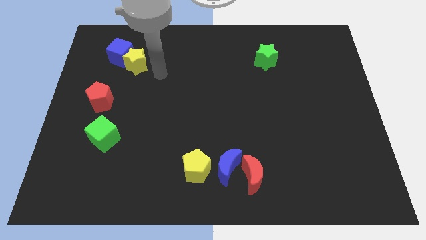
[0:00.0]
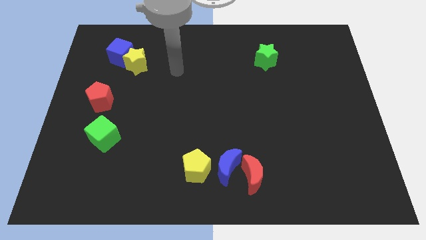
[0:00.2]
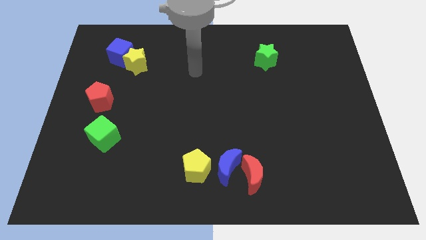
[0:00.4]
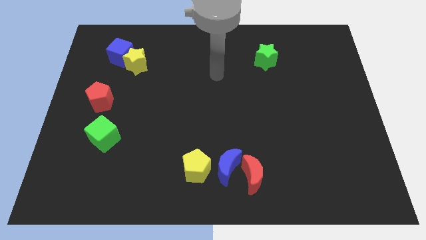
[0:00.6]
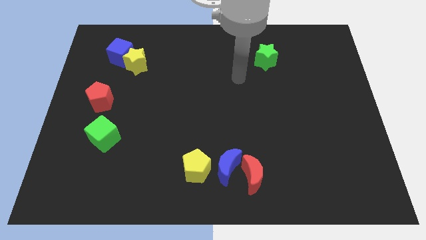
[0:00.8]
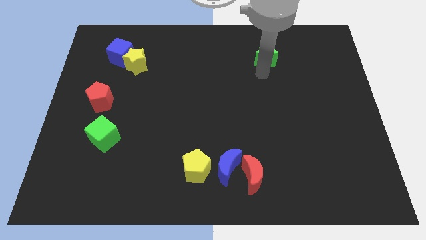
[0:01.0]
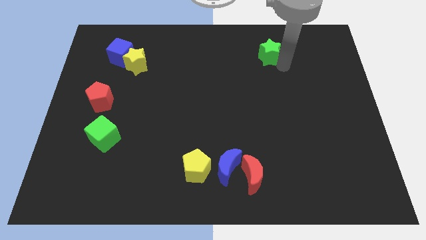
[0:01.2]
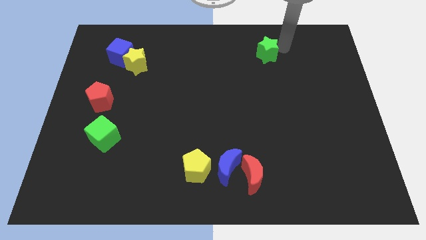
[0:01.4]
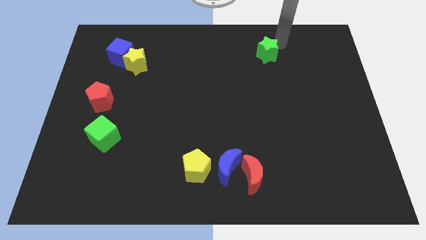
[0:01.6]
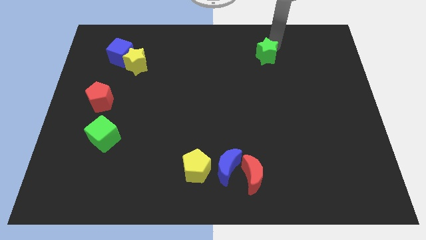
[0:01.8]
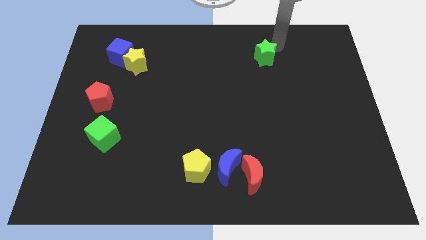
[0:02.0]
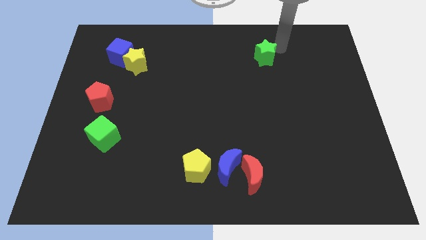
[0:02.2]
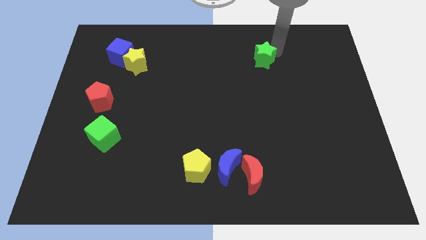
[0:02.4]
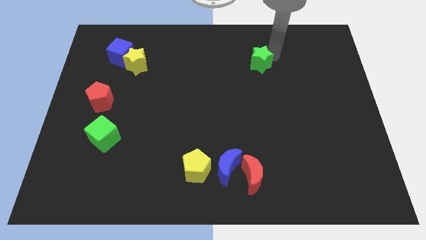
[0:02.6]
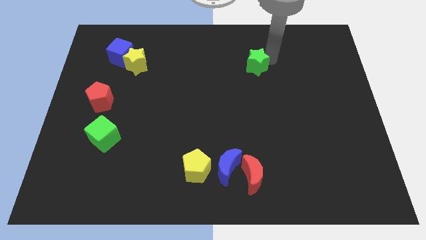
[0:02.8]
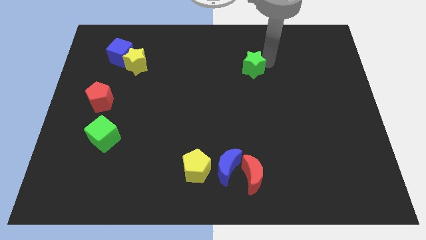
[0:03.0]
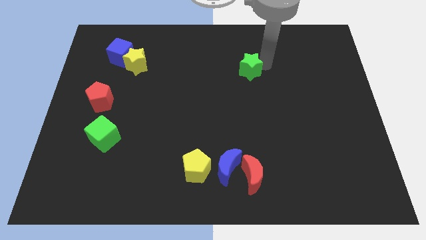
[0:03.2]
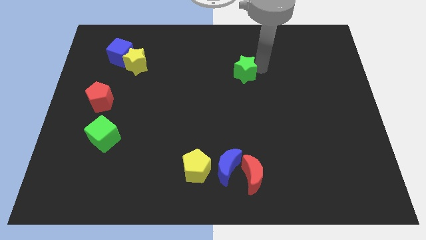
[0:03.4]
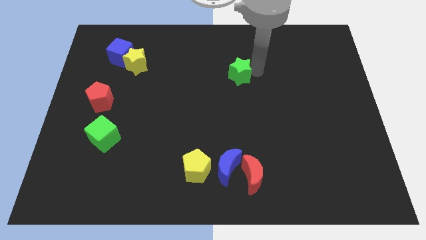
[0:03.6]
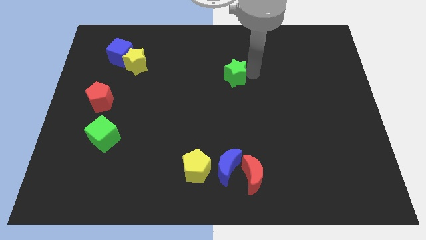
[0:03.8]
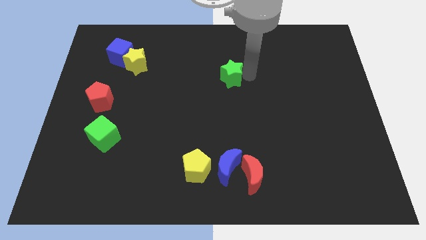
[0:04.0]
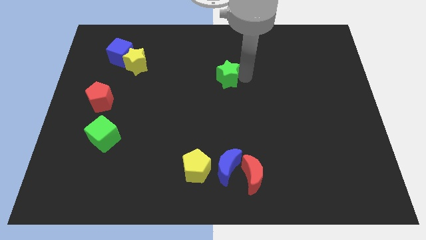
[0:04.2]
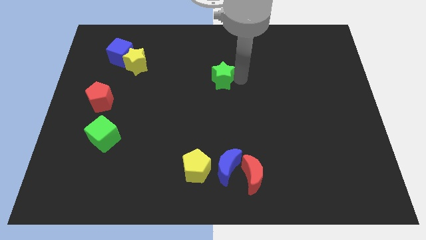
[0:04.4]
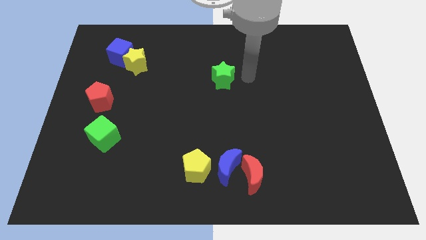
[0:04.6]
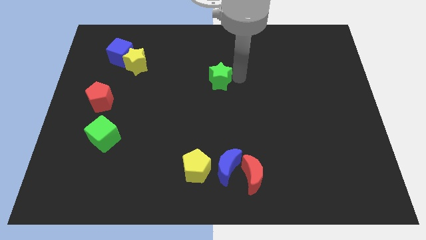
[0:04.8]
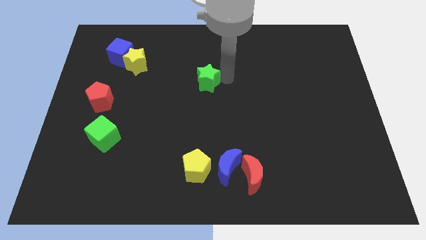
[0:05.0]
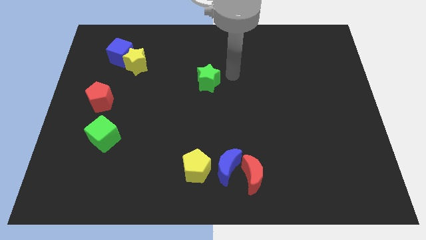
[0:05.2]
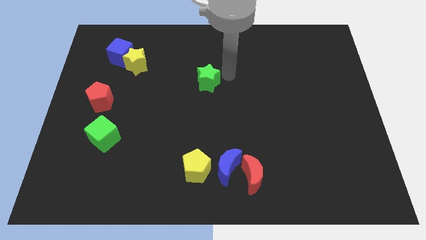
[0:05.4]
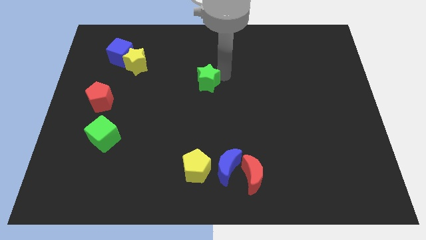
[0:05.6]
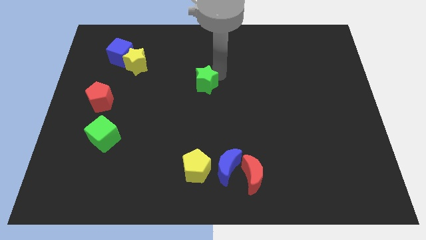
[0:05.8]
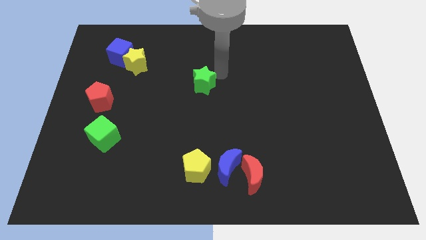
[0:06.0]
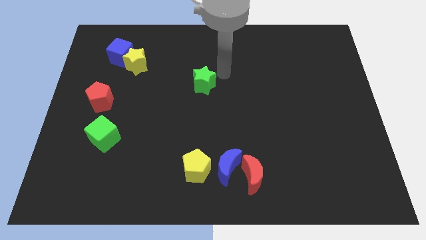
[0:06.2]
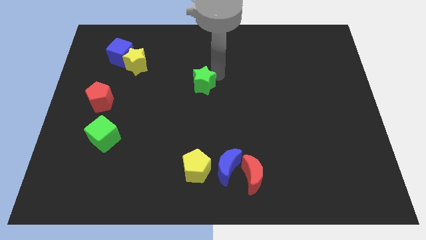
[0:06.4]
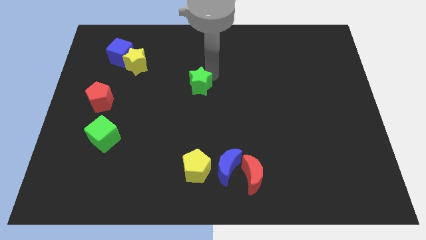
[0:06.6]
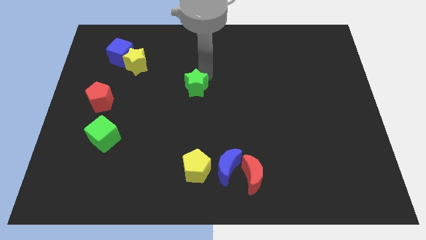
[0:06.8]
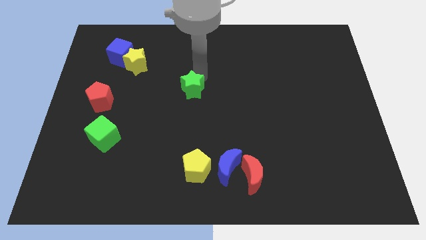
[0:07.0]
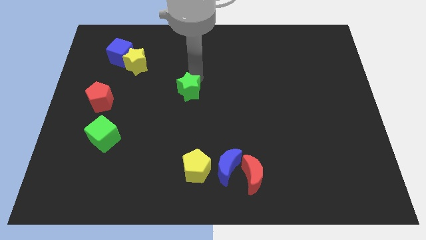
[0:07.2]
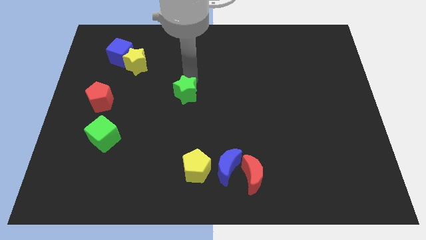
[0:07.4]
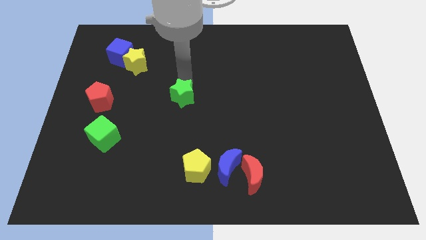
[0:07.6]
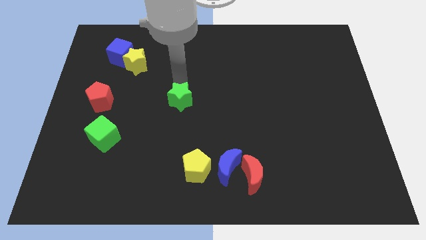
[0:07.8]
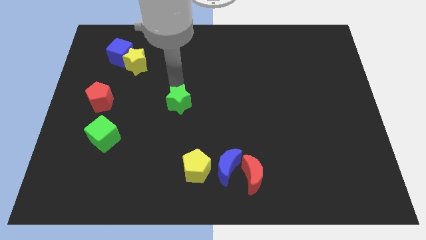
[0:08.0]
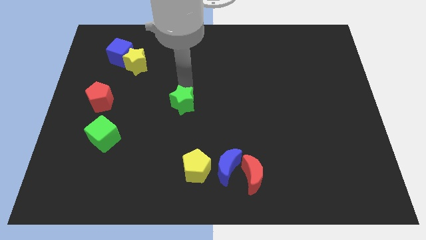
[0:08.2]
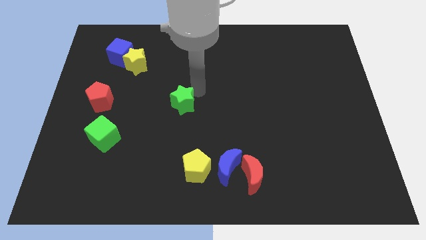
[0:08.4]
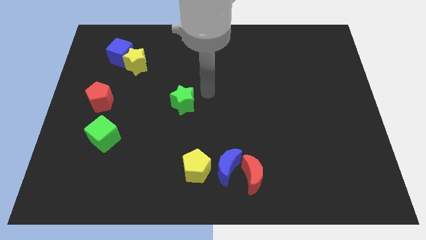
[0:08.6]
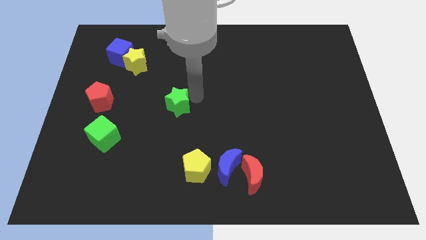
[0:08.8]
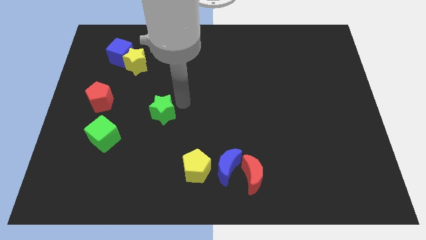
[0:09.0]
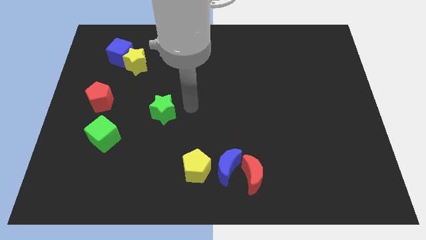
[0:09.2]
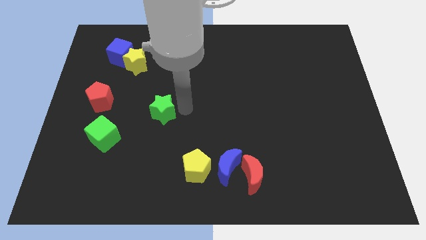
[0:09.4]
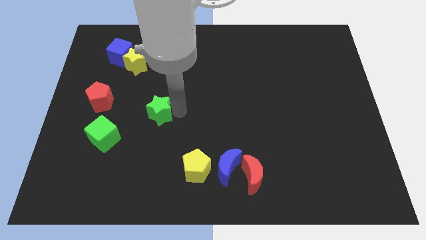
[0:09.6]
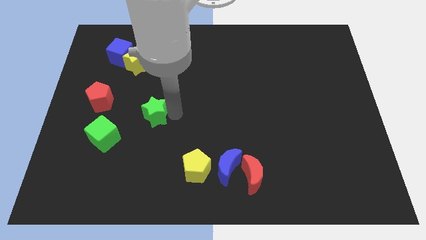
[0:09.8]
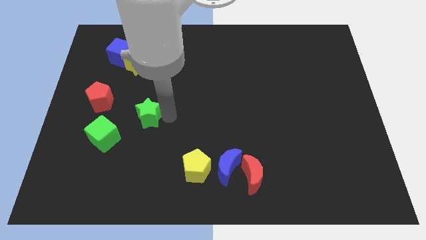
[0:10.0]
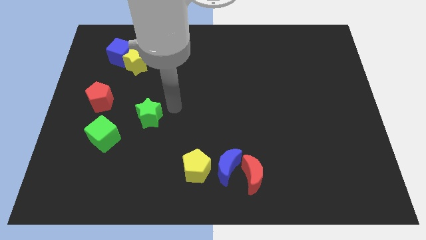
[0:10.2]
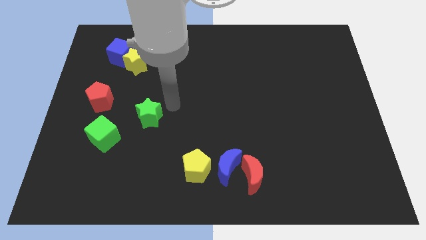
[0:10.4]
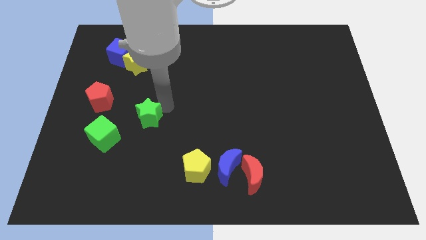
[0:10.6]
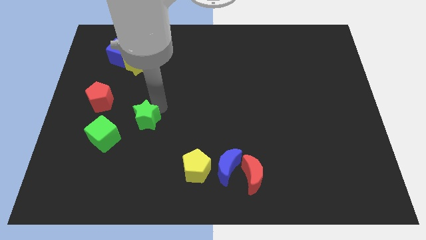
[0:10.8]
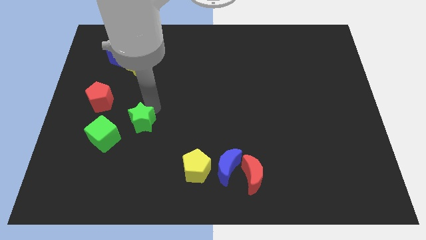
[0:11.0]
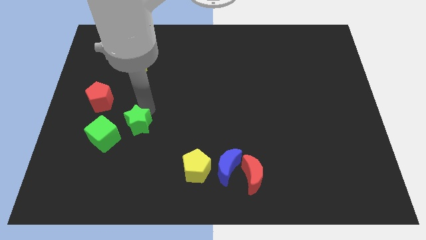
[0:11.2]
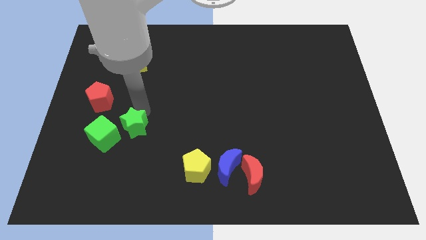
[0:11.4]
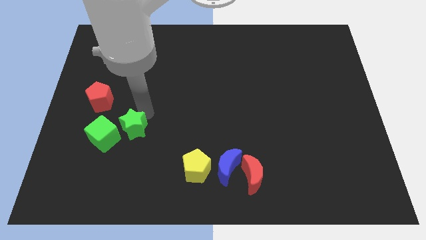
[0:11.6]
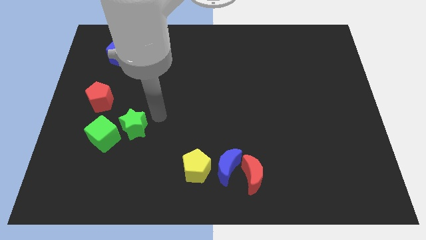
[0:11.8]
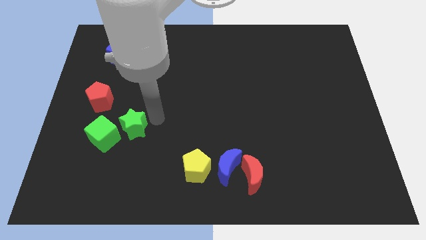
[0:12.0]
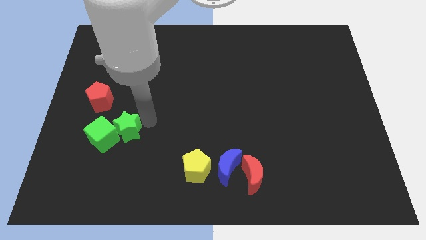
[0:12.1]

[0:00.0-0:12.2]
put the green star close to the green cube

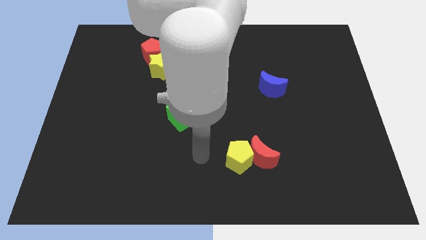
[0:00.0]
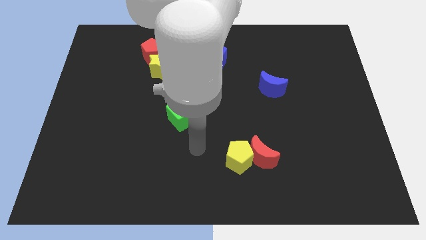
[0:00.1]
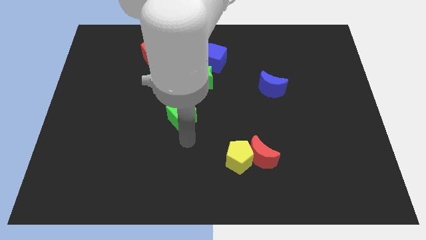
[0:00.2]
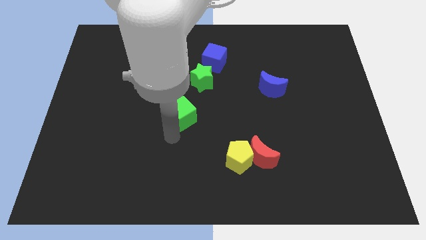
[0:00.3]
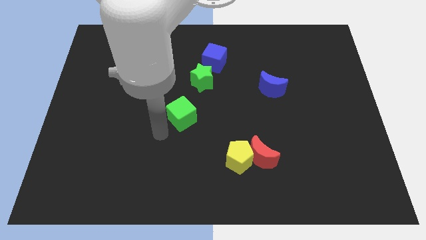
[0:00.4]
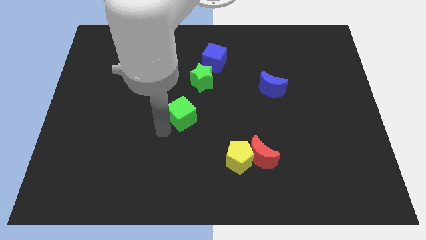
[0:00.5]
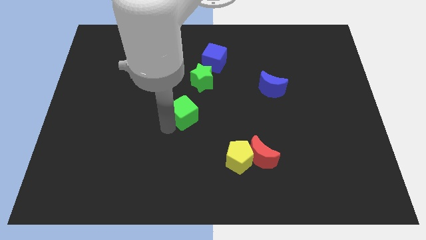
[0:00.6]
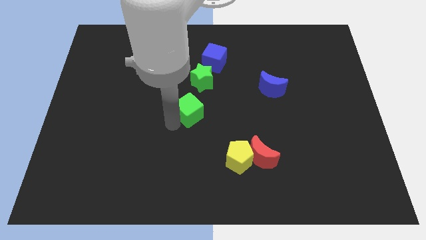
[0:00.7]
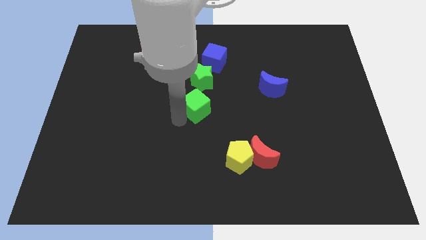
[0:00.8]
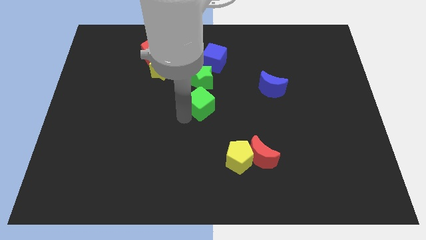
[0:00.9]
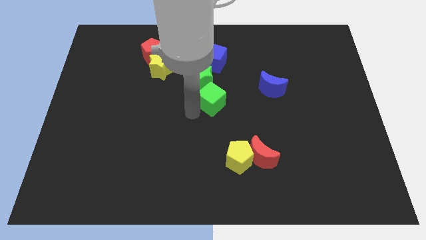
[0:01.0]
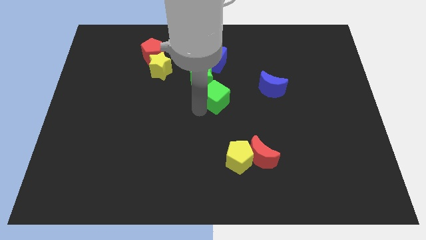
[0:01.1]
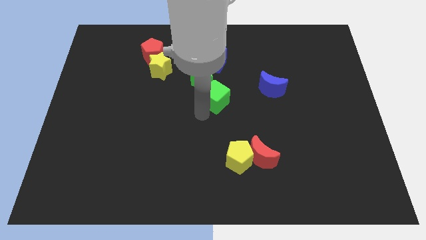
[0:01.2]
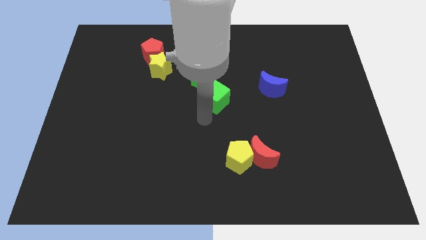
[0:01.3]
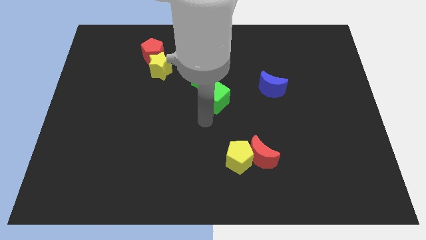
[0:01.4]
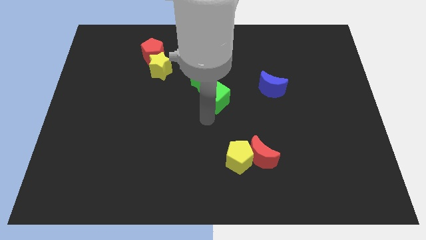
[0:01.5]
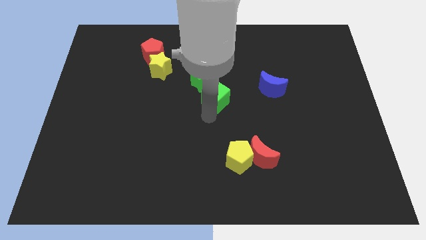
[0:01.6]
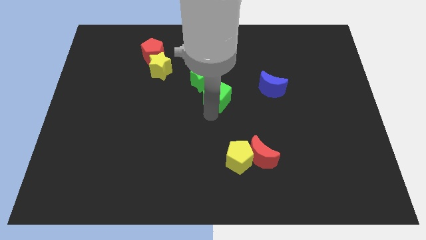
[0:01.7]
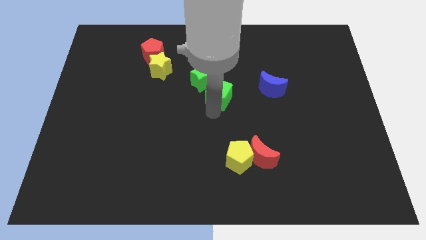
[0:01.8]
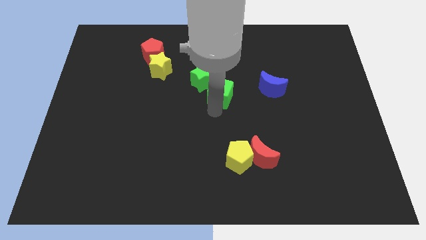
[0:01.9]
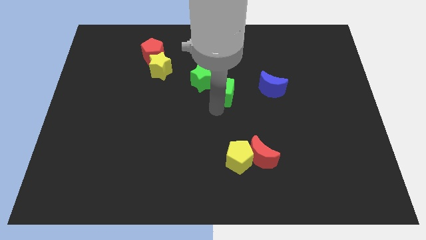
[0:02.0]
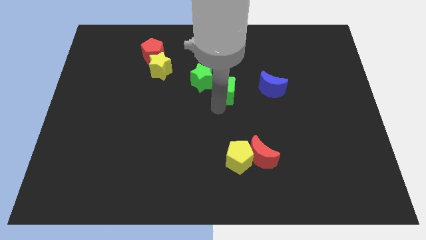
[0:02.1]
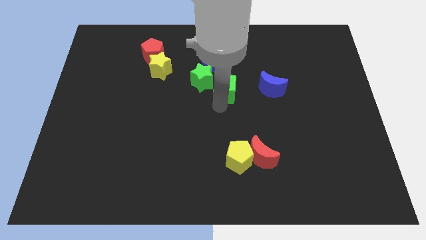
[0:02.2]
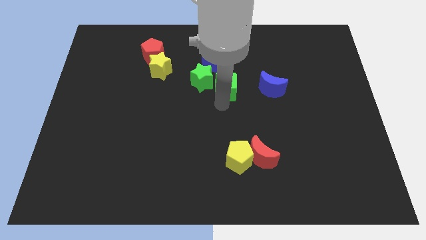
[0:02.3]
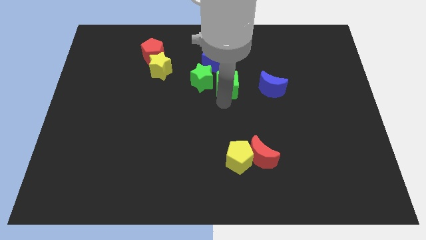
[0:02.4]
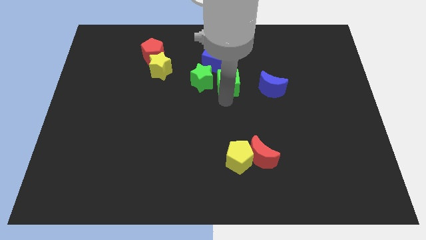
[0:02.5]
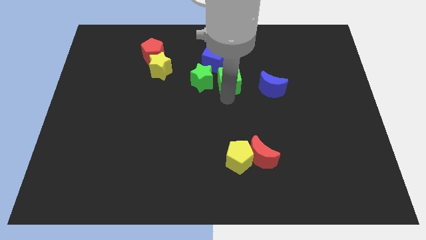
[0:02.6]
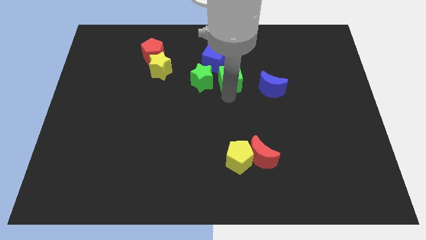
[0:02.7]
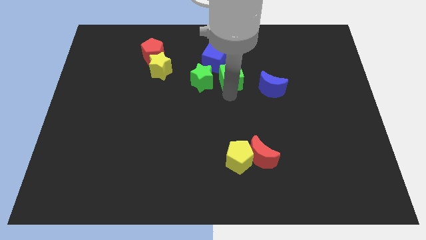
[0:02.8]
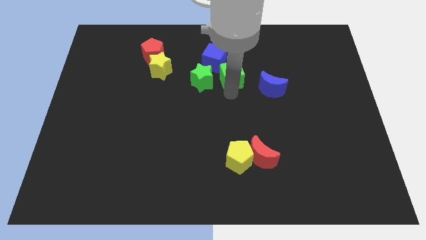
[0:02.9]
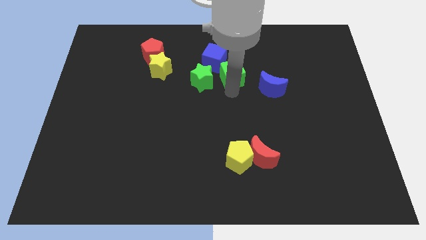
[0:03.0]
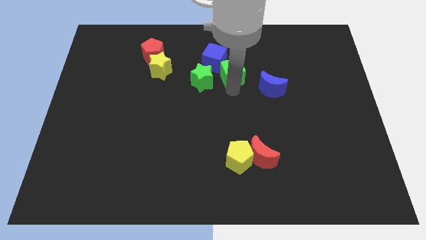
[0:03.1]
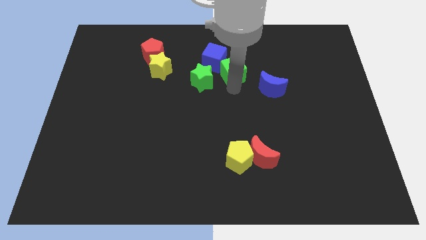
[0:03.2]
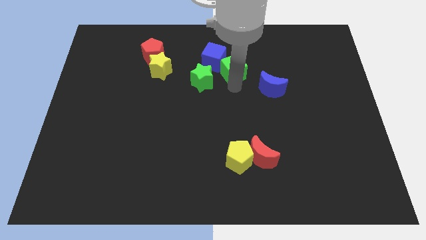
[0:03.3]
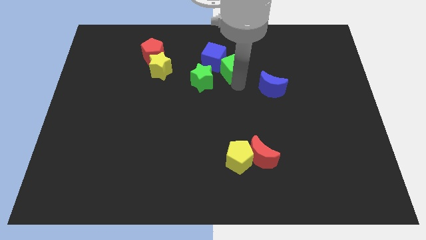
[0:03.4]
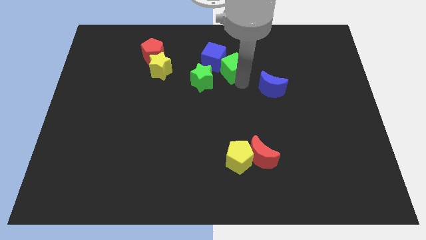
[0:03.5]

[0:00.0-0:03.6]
move the green cube towards the blue cube
